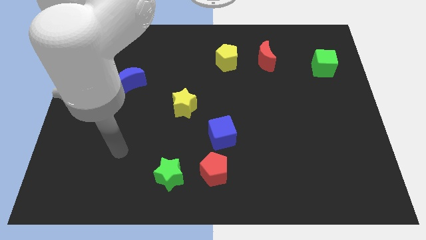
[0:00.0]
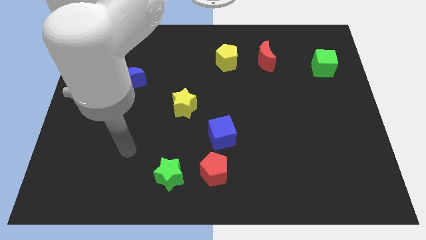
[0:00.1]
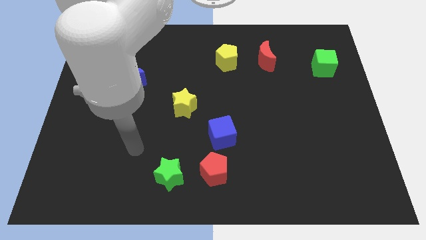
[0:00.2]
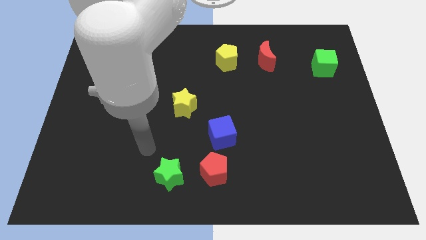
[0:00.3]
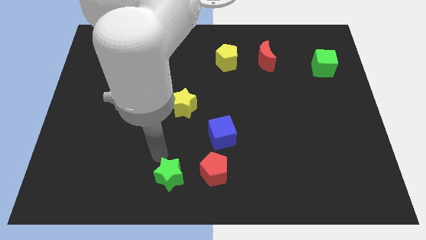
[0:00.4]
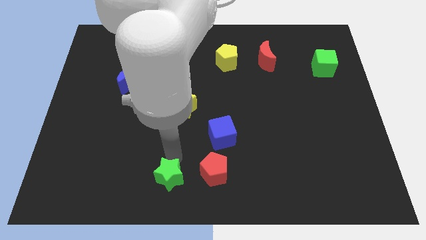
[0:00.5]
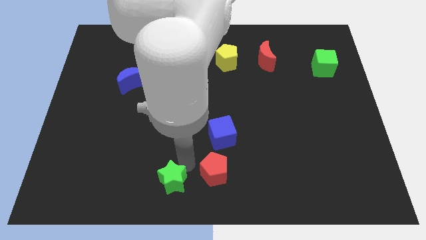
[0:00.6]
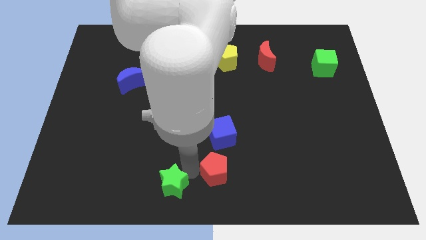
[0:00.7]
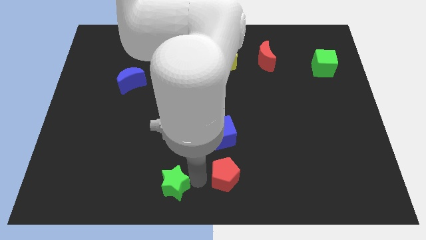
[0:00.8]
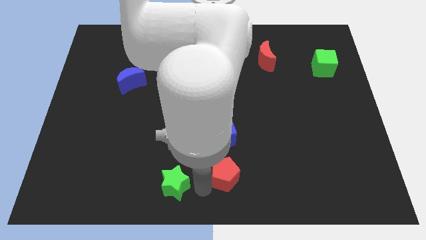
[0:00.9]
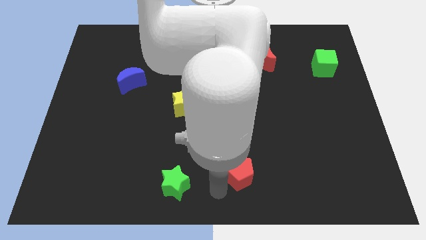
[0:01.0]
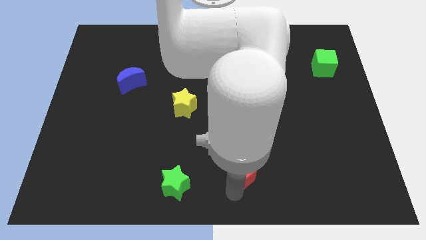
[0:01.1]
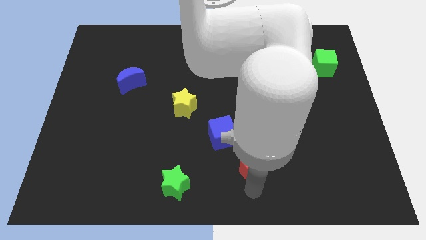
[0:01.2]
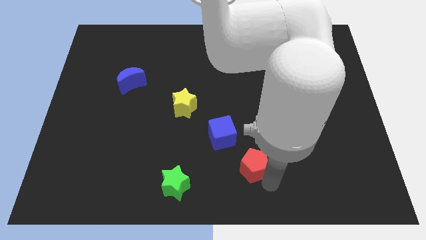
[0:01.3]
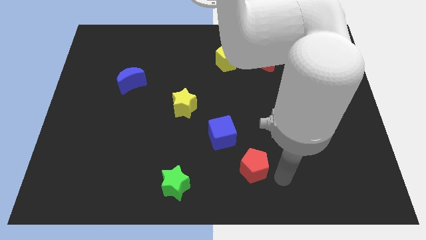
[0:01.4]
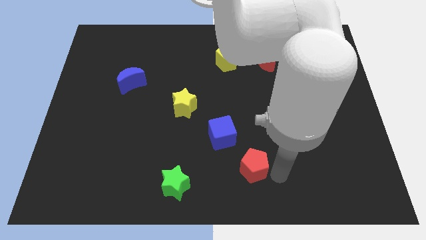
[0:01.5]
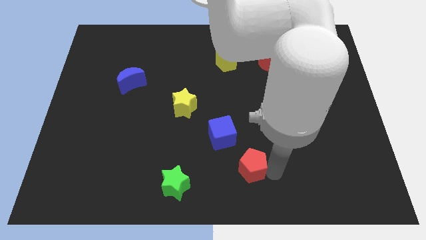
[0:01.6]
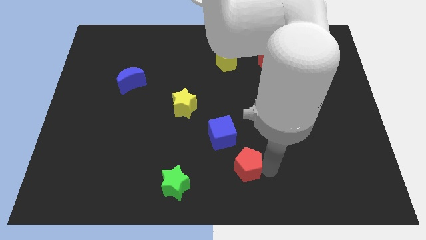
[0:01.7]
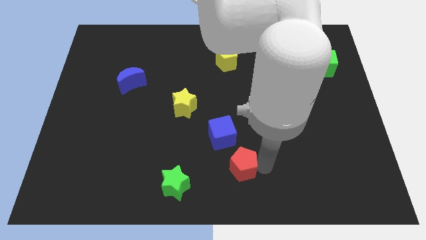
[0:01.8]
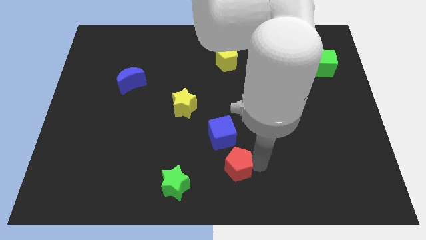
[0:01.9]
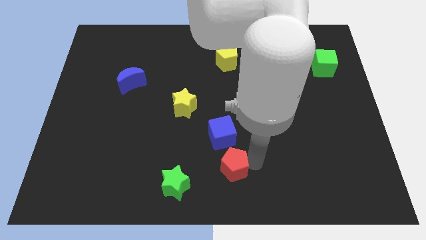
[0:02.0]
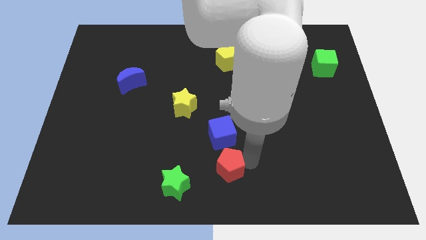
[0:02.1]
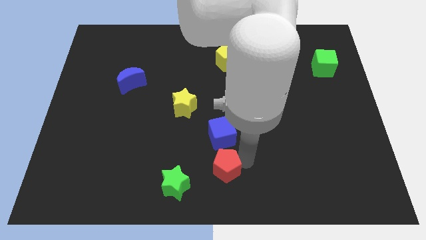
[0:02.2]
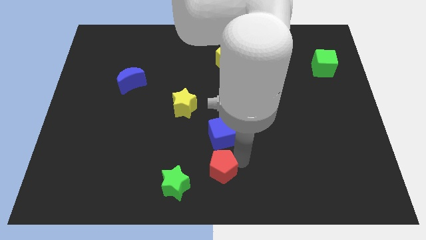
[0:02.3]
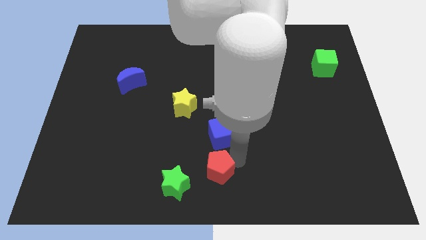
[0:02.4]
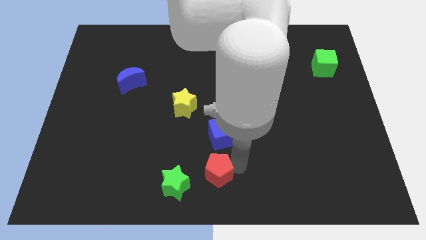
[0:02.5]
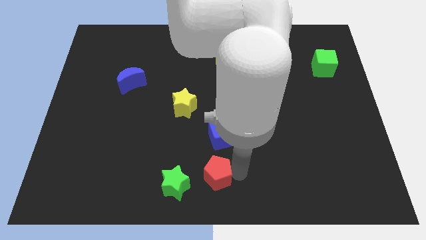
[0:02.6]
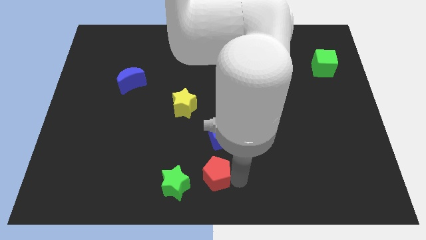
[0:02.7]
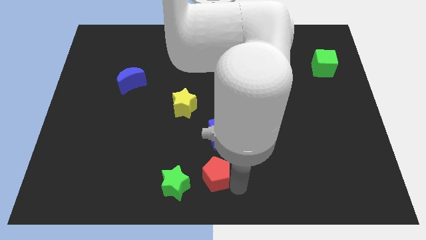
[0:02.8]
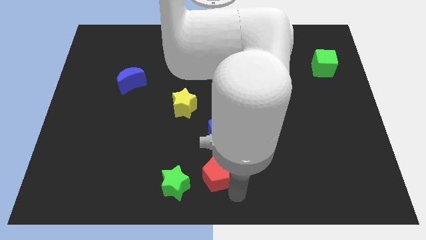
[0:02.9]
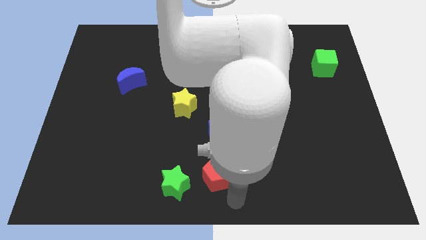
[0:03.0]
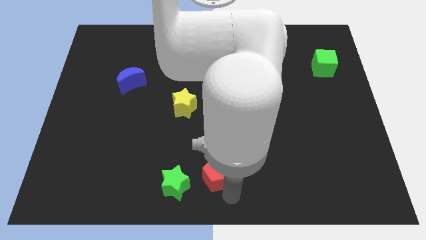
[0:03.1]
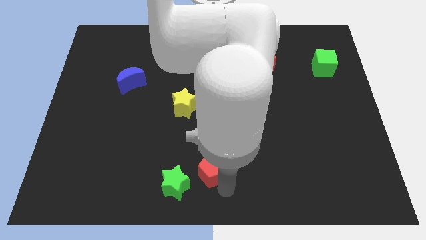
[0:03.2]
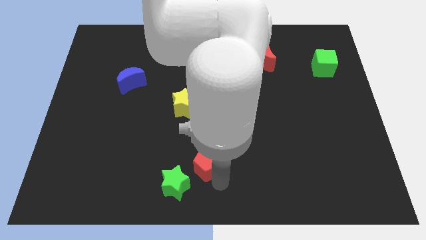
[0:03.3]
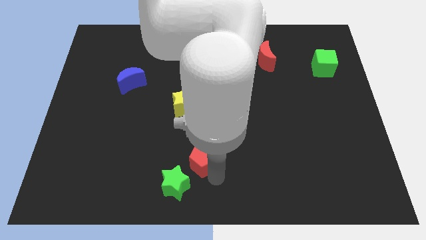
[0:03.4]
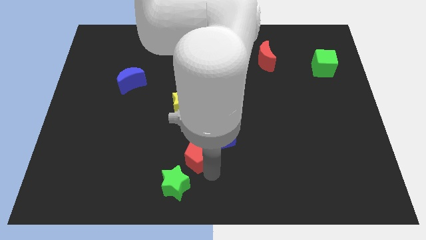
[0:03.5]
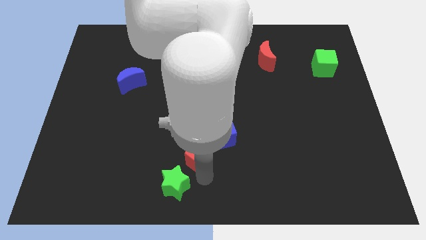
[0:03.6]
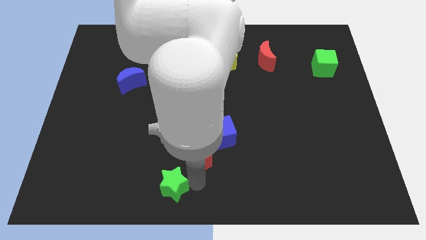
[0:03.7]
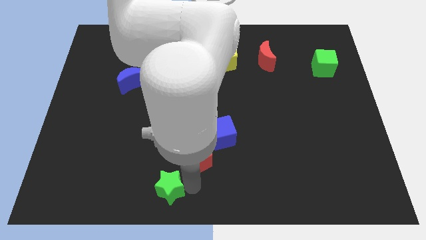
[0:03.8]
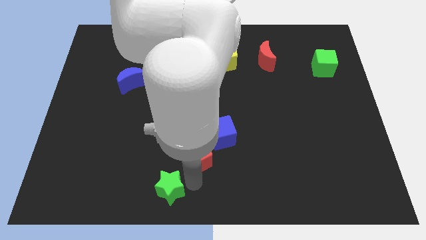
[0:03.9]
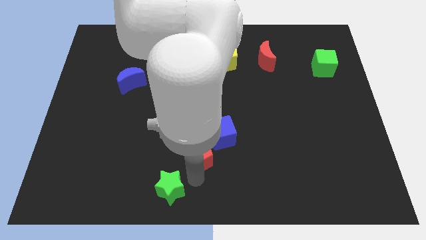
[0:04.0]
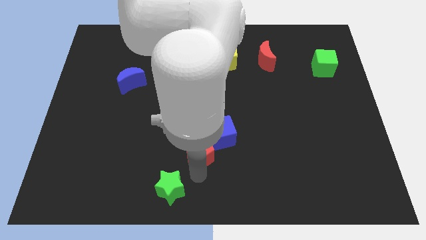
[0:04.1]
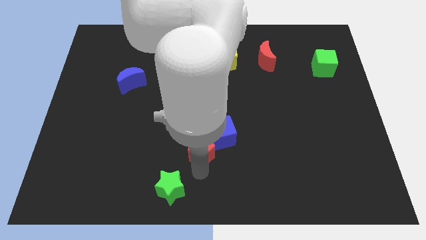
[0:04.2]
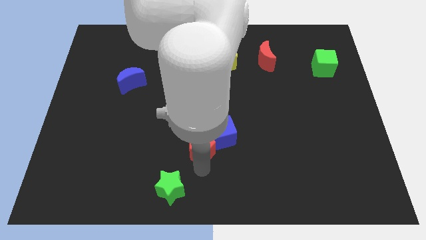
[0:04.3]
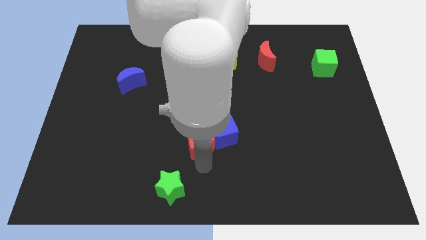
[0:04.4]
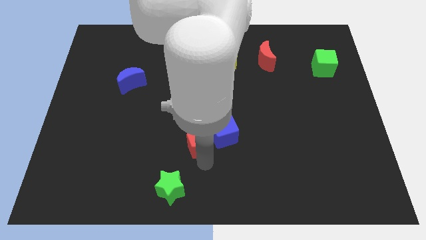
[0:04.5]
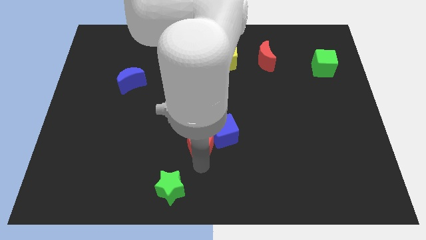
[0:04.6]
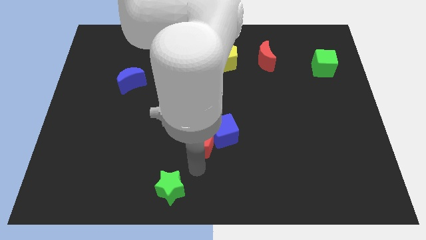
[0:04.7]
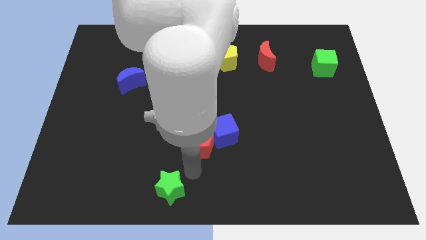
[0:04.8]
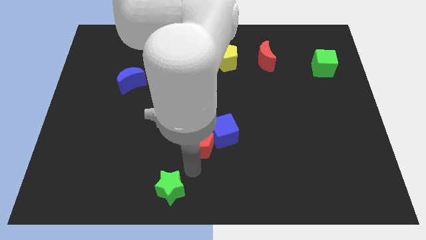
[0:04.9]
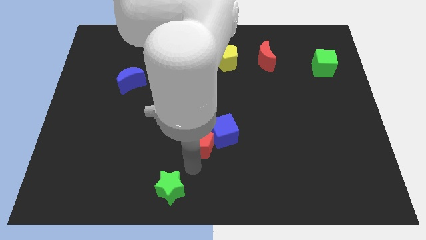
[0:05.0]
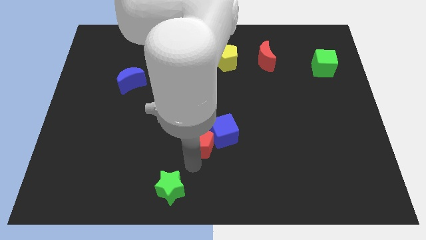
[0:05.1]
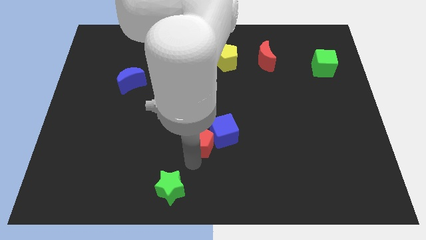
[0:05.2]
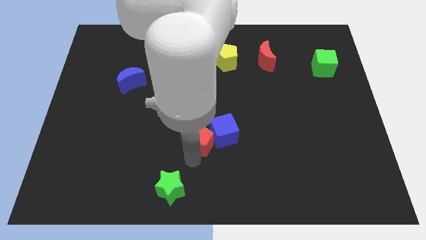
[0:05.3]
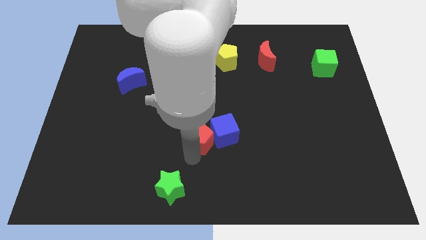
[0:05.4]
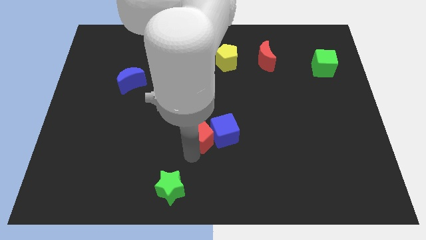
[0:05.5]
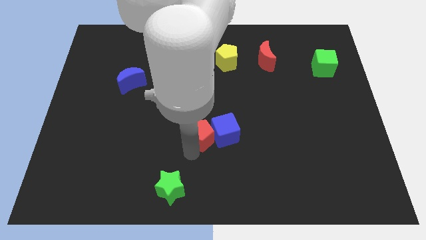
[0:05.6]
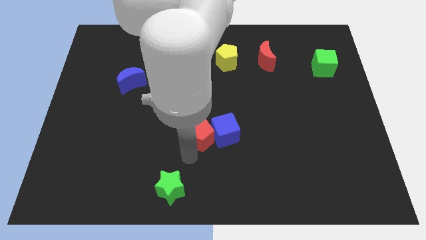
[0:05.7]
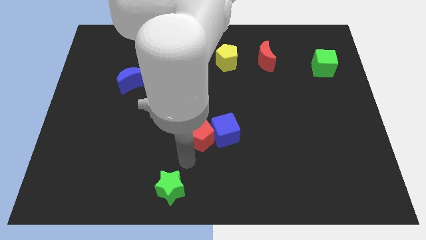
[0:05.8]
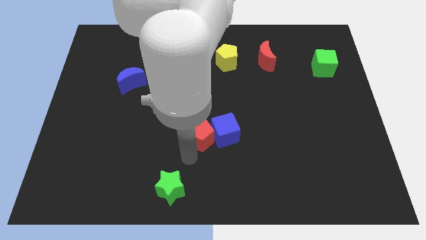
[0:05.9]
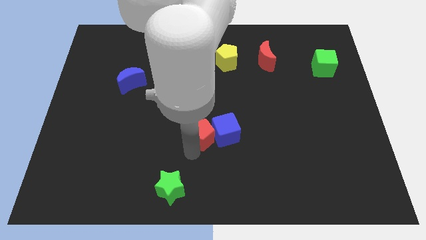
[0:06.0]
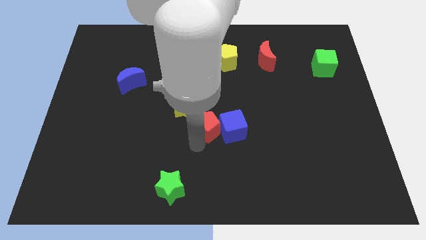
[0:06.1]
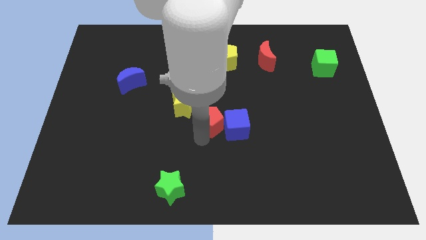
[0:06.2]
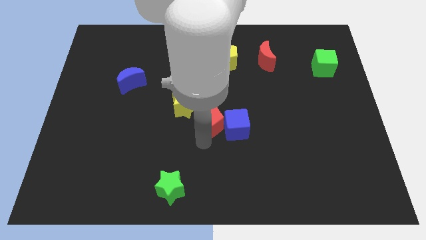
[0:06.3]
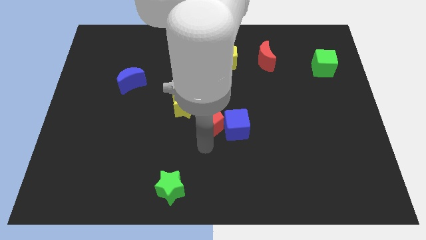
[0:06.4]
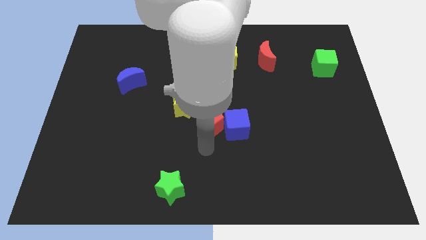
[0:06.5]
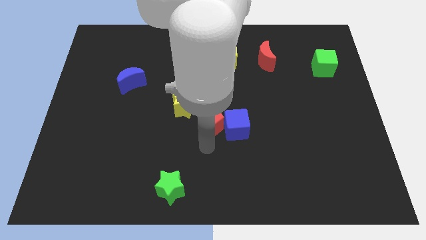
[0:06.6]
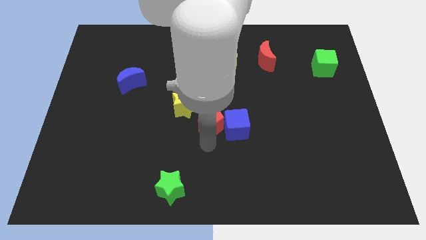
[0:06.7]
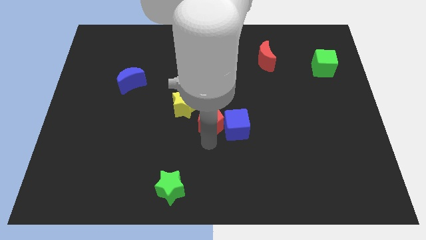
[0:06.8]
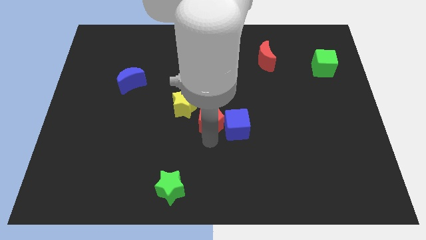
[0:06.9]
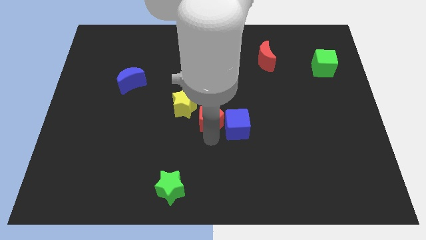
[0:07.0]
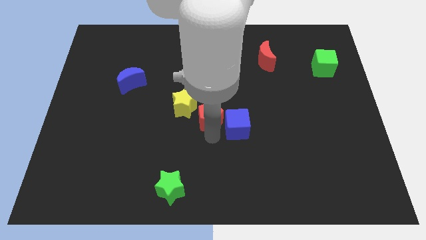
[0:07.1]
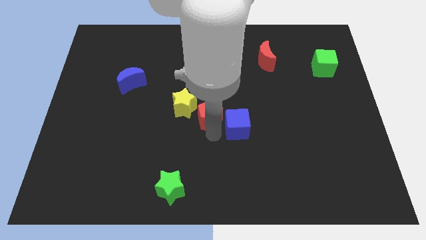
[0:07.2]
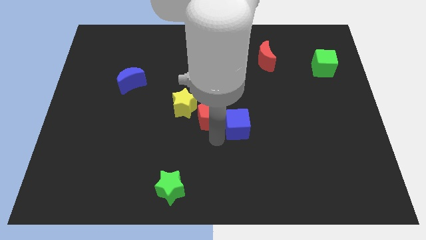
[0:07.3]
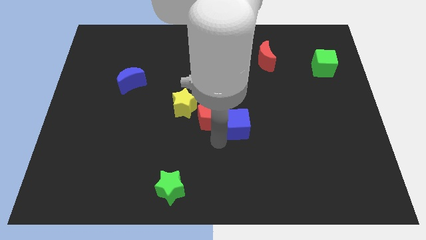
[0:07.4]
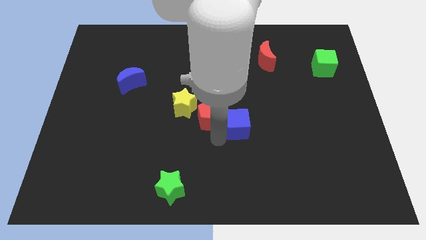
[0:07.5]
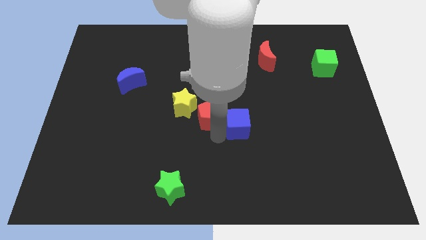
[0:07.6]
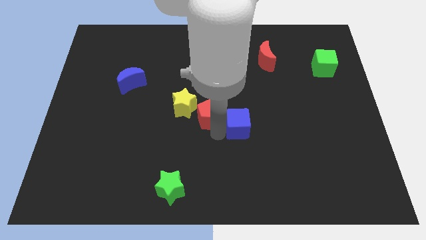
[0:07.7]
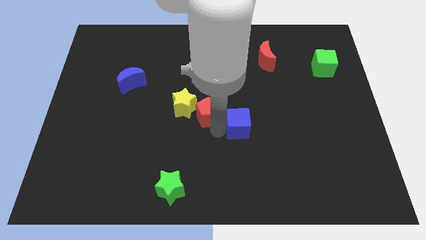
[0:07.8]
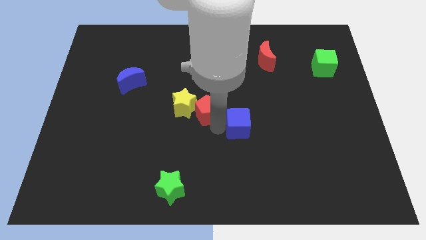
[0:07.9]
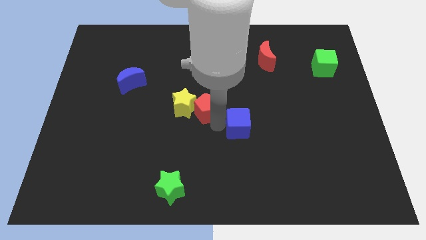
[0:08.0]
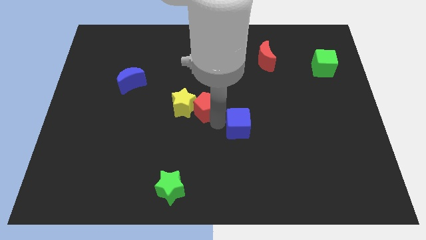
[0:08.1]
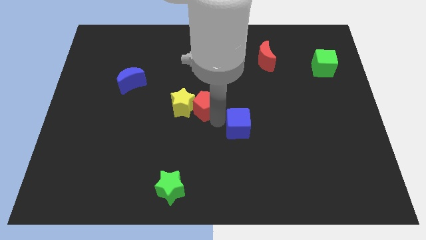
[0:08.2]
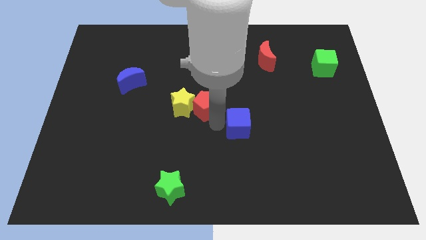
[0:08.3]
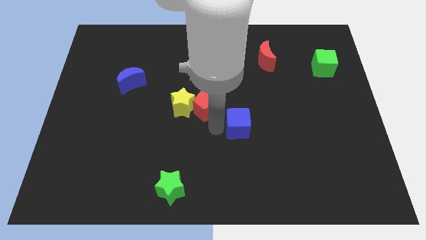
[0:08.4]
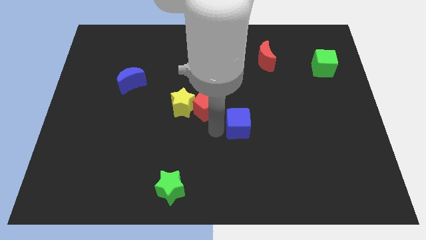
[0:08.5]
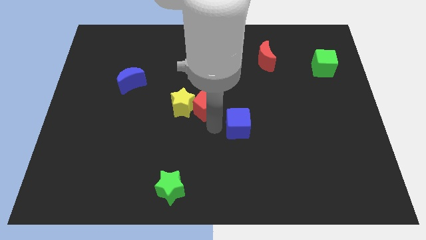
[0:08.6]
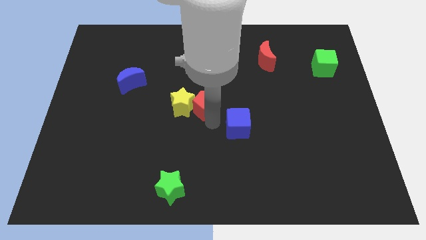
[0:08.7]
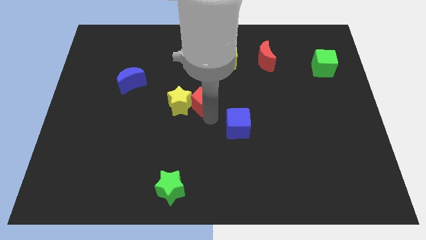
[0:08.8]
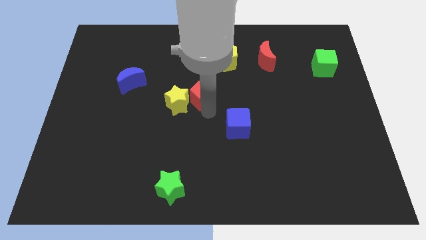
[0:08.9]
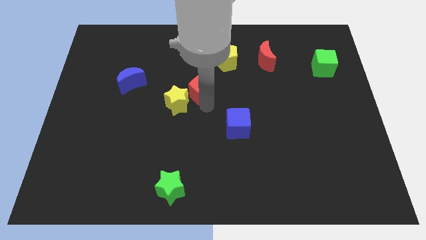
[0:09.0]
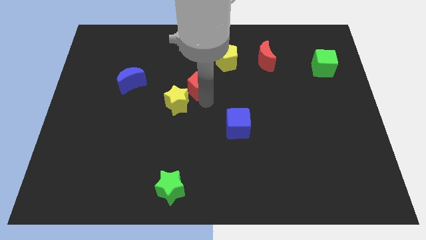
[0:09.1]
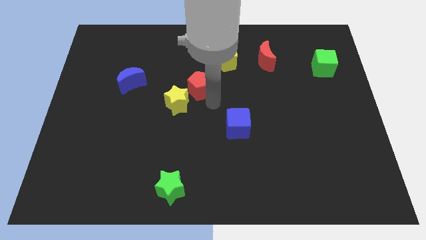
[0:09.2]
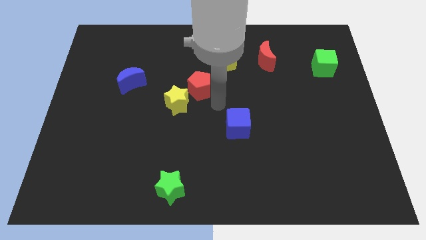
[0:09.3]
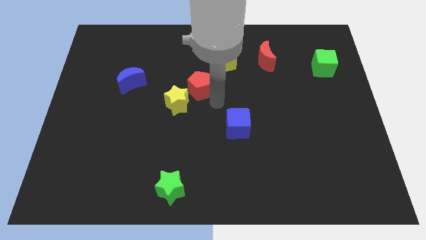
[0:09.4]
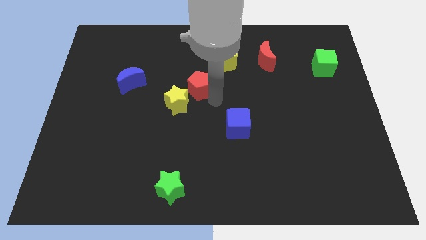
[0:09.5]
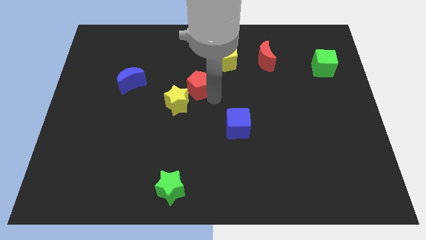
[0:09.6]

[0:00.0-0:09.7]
slide the red pentagon to the top side of the yellow star
